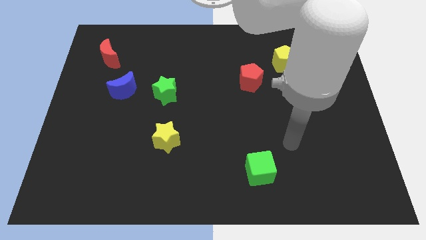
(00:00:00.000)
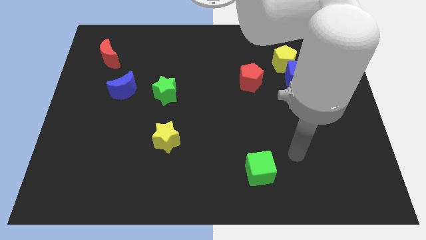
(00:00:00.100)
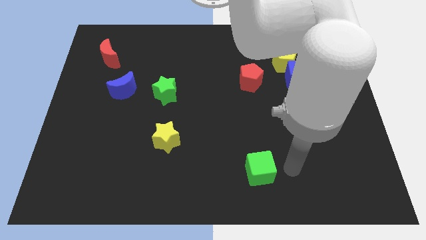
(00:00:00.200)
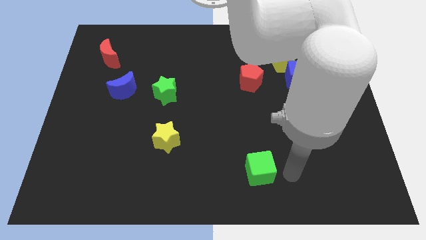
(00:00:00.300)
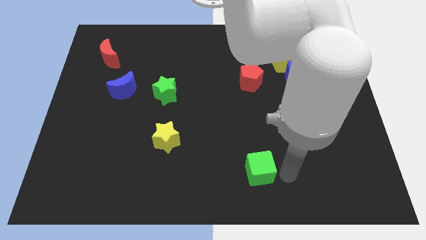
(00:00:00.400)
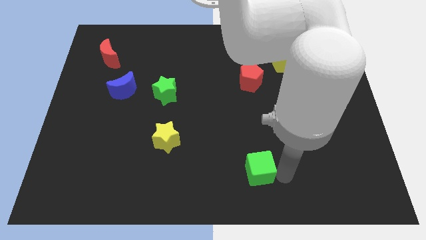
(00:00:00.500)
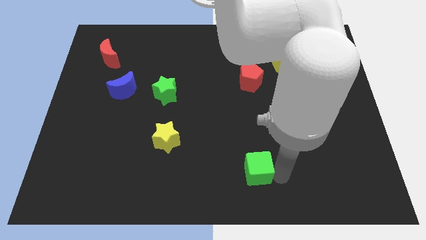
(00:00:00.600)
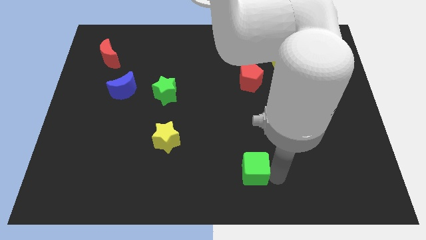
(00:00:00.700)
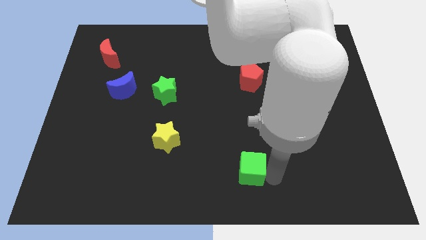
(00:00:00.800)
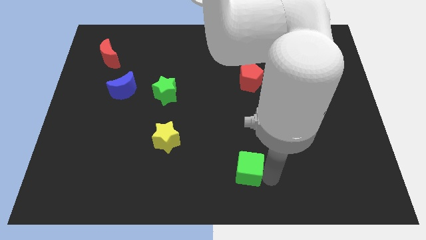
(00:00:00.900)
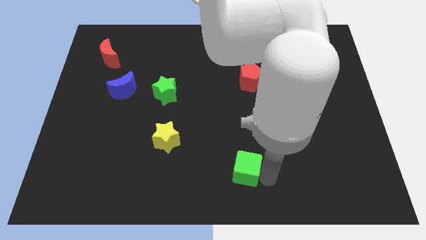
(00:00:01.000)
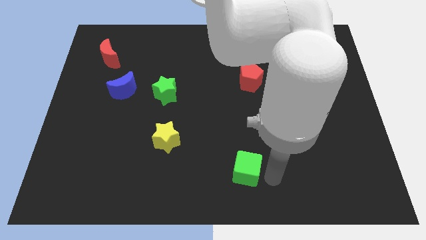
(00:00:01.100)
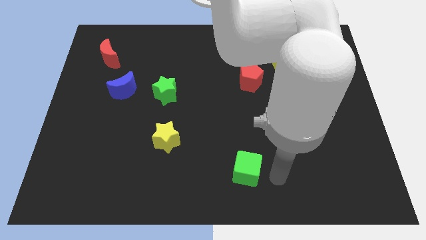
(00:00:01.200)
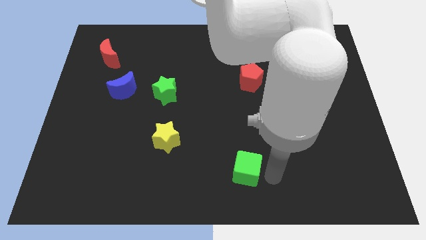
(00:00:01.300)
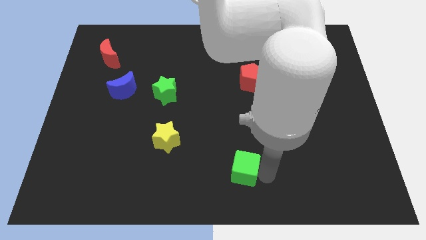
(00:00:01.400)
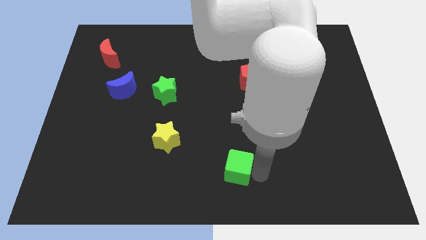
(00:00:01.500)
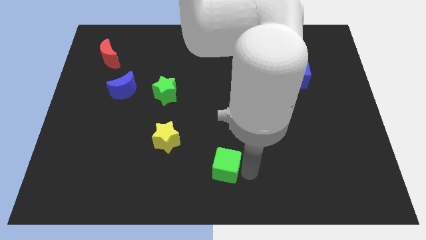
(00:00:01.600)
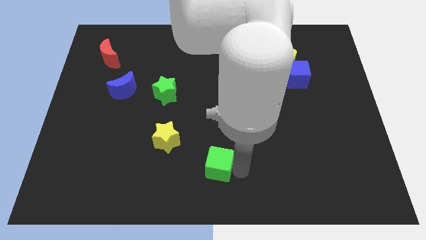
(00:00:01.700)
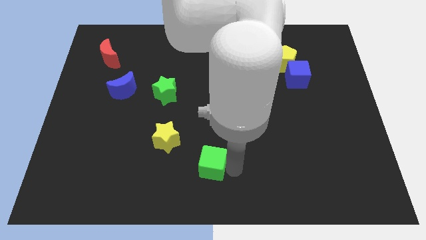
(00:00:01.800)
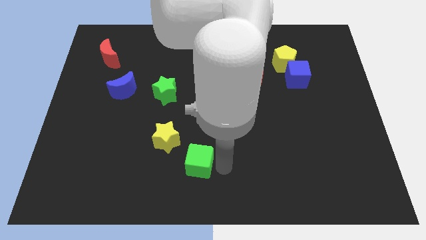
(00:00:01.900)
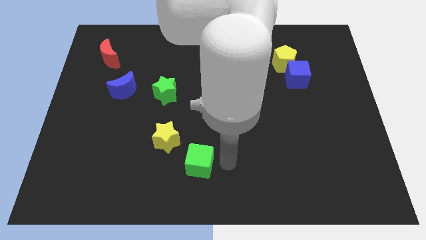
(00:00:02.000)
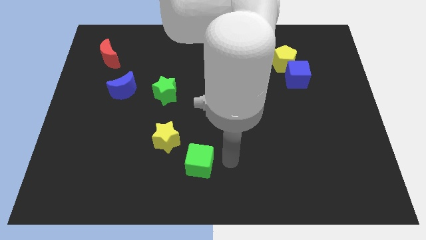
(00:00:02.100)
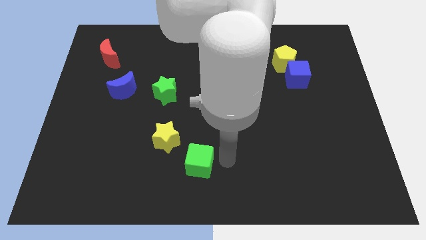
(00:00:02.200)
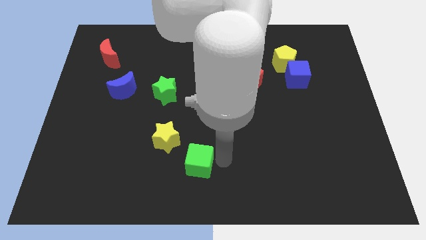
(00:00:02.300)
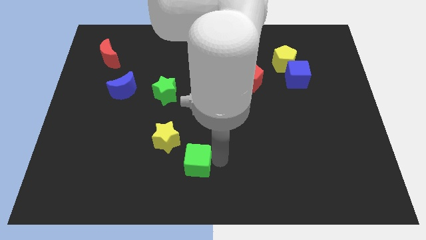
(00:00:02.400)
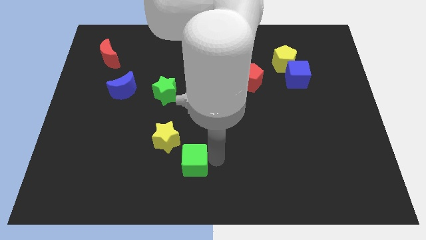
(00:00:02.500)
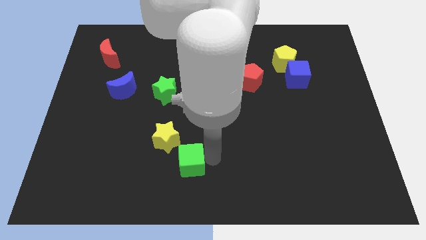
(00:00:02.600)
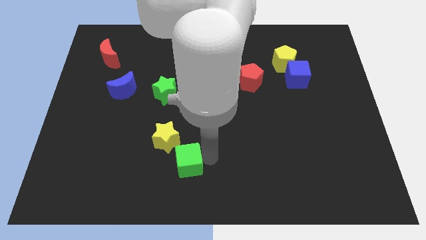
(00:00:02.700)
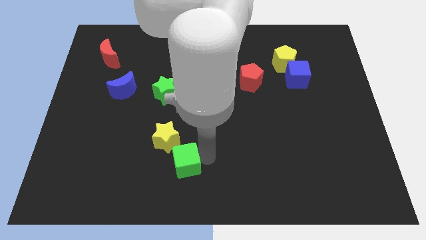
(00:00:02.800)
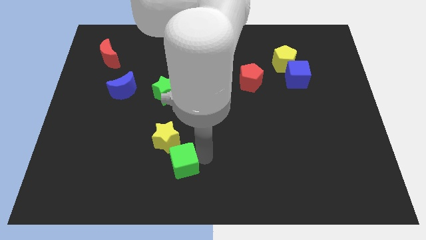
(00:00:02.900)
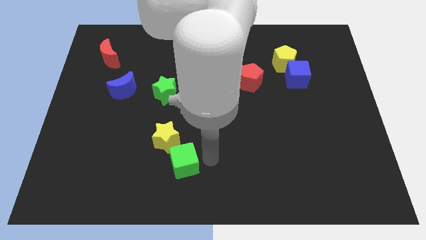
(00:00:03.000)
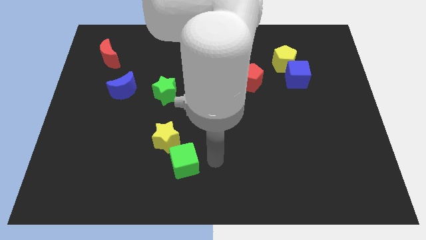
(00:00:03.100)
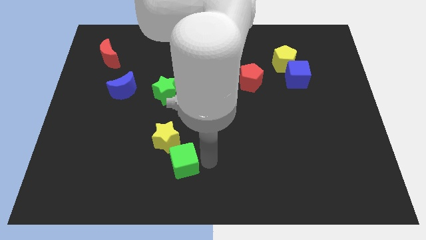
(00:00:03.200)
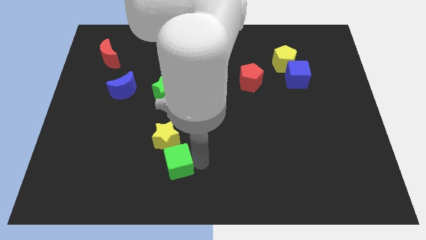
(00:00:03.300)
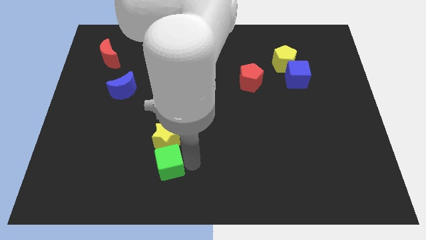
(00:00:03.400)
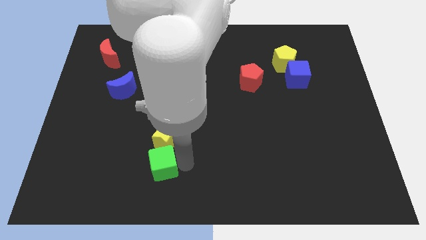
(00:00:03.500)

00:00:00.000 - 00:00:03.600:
push the green cube to the left

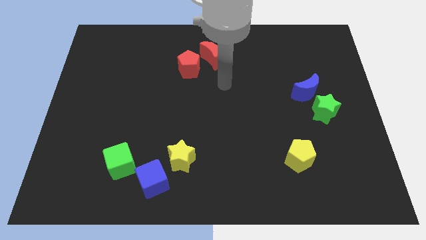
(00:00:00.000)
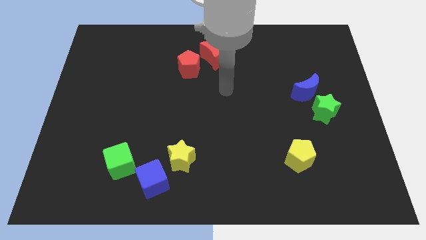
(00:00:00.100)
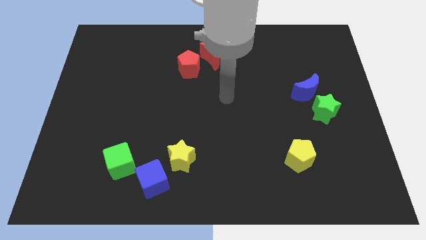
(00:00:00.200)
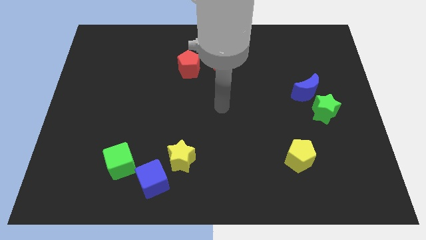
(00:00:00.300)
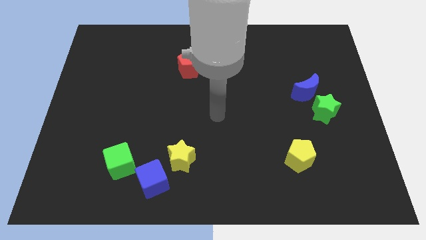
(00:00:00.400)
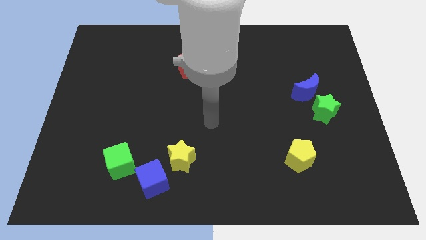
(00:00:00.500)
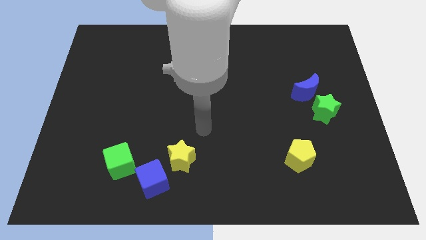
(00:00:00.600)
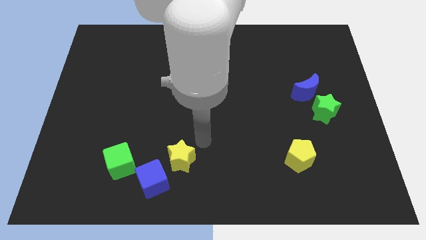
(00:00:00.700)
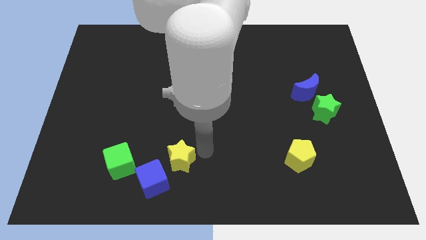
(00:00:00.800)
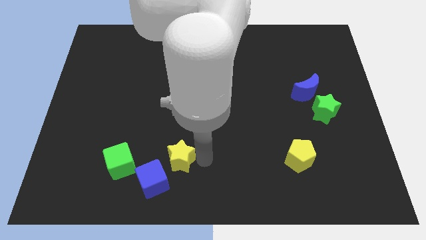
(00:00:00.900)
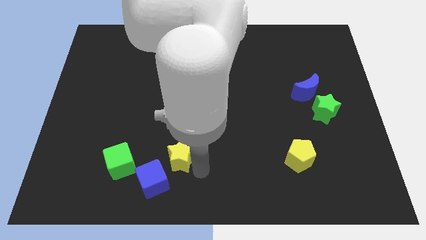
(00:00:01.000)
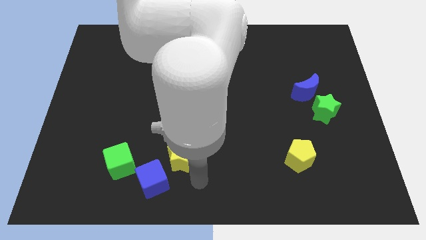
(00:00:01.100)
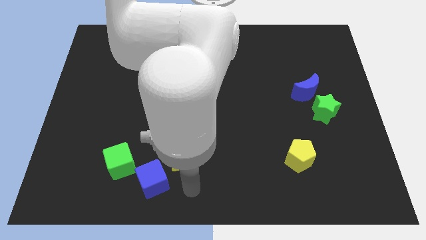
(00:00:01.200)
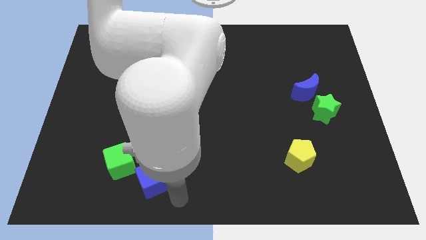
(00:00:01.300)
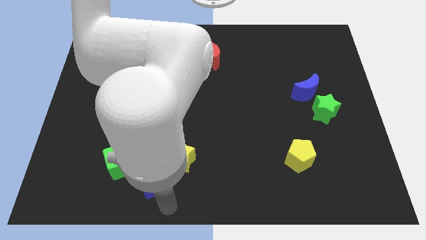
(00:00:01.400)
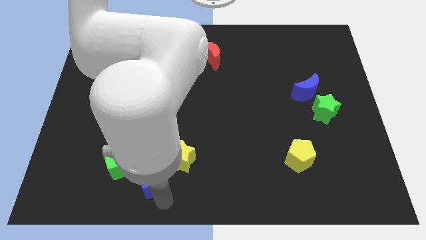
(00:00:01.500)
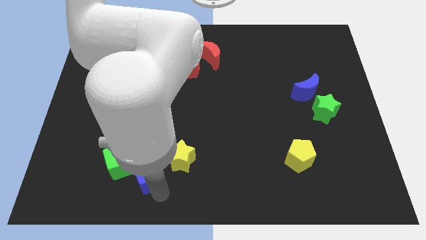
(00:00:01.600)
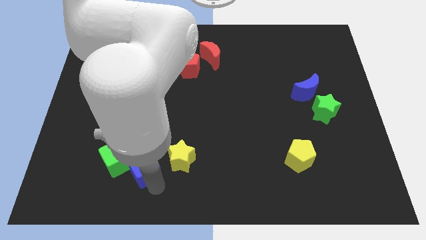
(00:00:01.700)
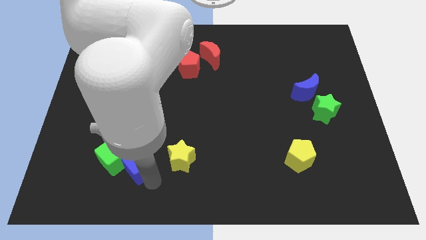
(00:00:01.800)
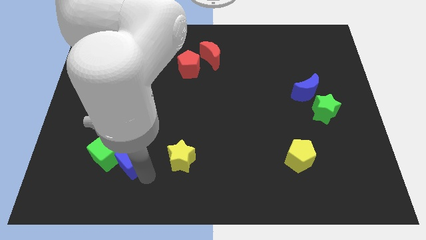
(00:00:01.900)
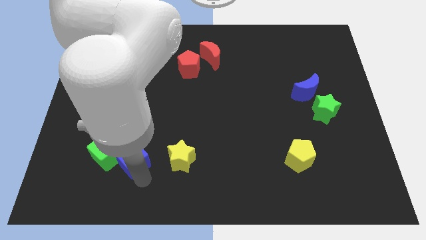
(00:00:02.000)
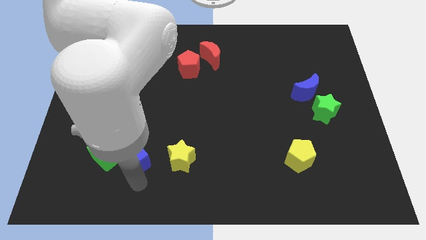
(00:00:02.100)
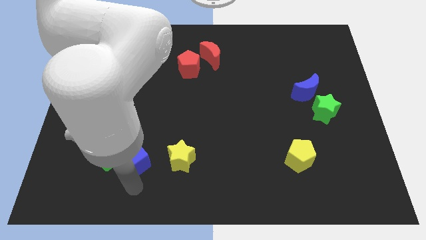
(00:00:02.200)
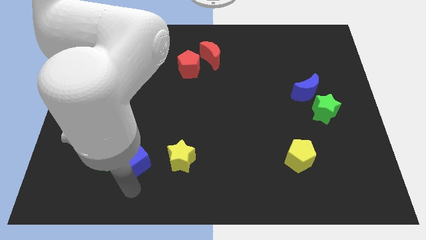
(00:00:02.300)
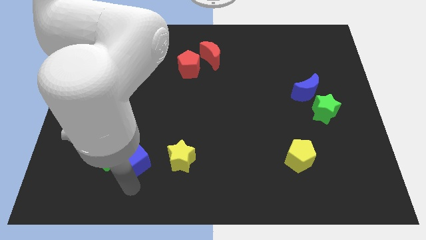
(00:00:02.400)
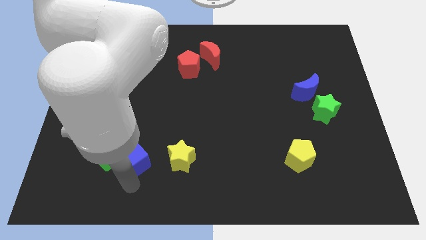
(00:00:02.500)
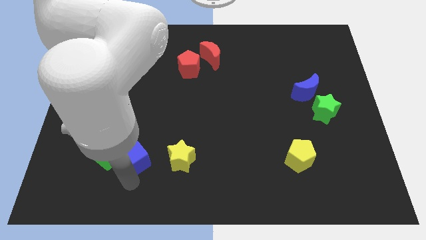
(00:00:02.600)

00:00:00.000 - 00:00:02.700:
slide the blue cube slightly upwards and to the left

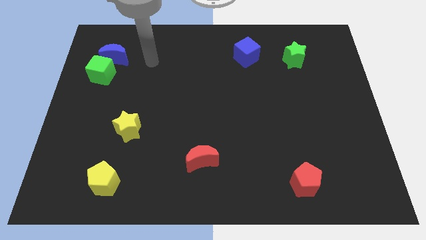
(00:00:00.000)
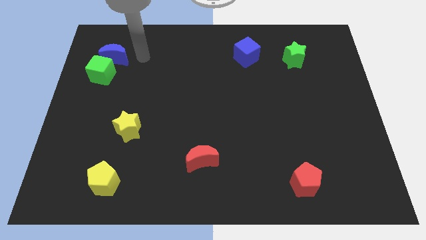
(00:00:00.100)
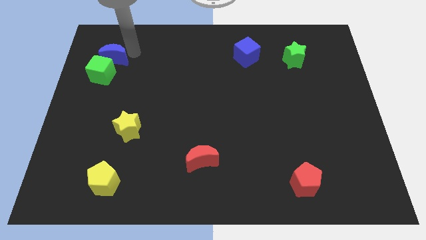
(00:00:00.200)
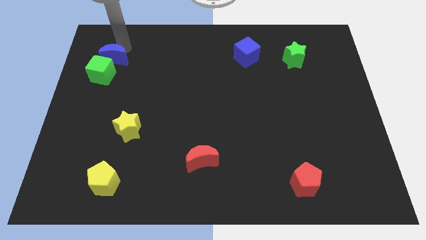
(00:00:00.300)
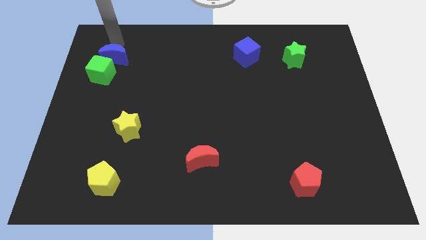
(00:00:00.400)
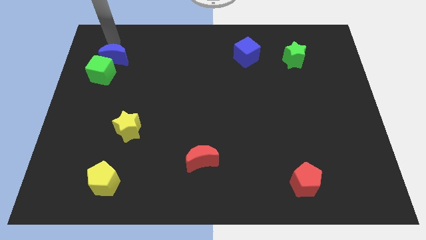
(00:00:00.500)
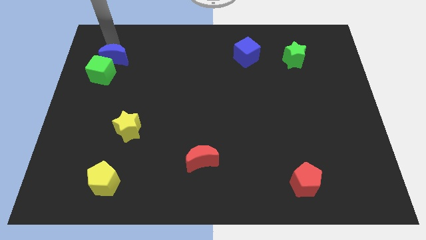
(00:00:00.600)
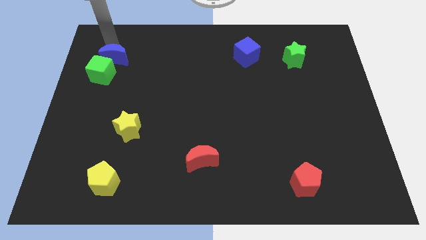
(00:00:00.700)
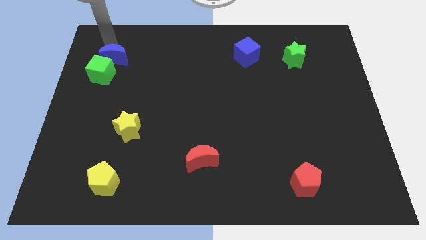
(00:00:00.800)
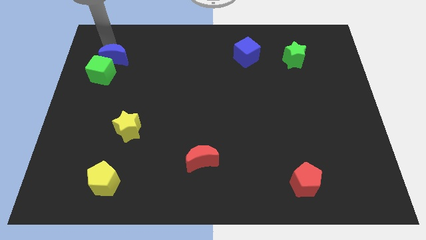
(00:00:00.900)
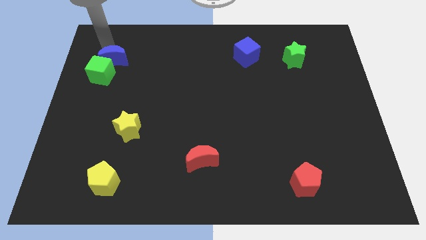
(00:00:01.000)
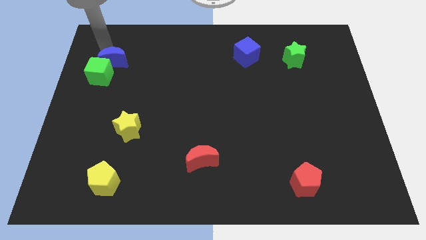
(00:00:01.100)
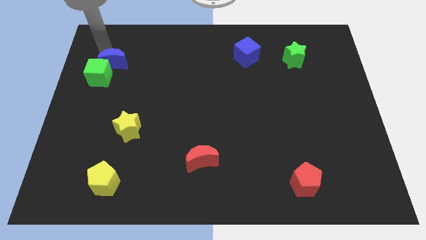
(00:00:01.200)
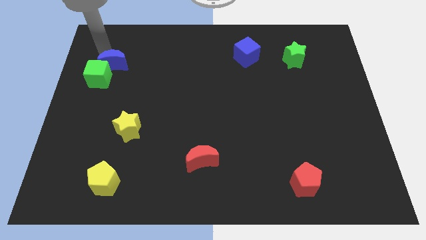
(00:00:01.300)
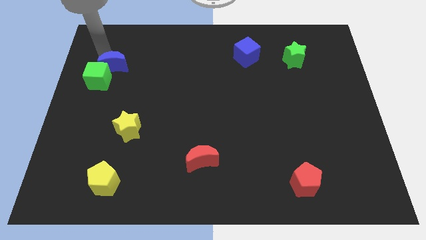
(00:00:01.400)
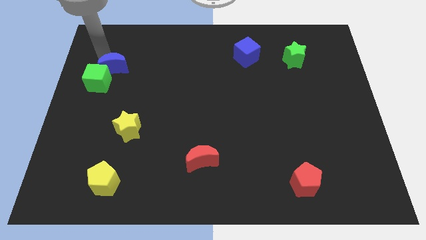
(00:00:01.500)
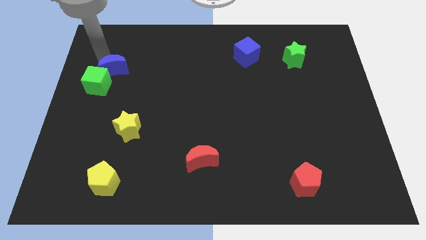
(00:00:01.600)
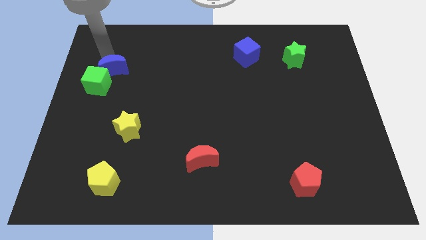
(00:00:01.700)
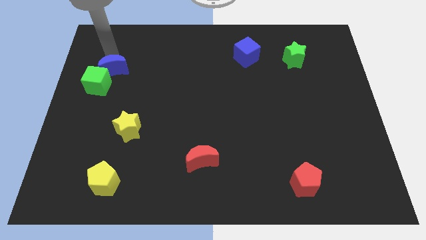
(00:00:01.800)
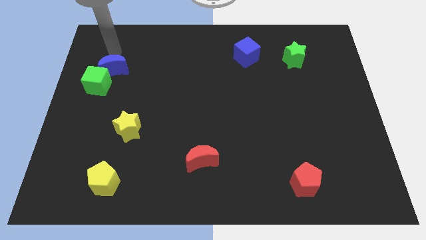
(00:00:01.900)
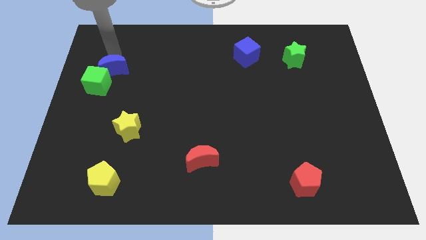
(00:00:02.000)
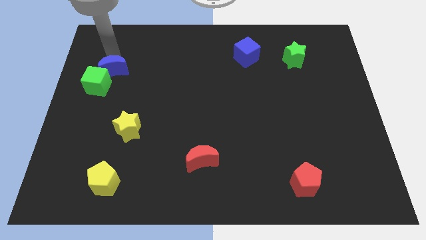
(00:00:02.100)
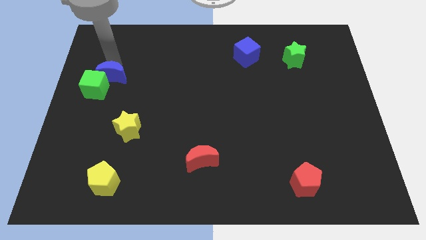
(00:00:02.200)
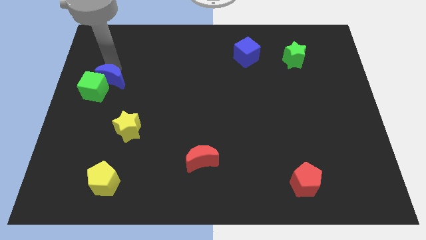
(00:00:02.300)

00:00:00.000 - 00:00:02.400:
slide the blue moon somewhat down
